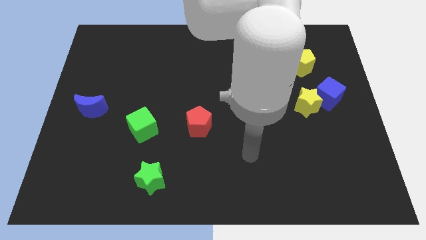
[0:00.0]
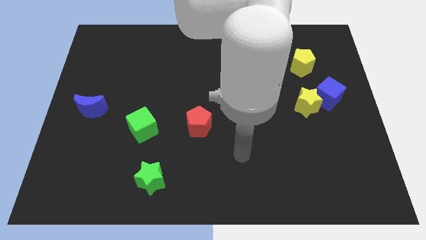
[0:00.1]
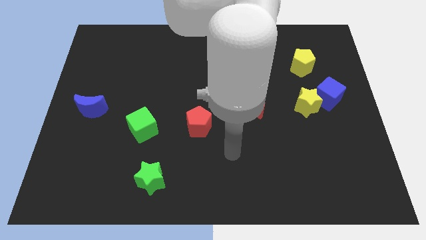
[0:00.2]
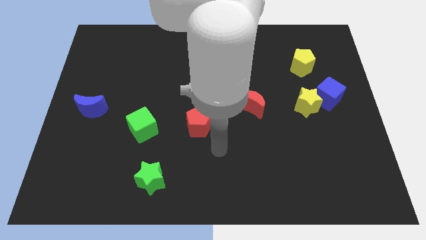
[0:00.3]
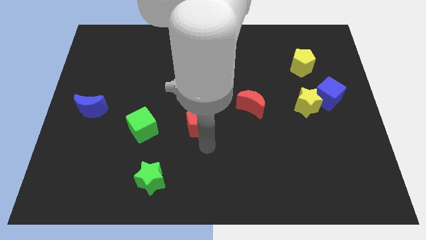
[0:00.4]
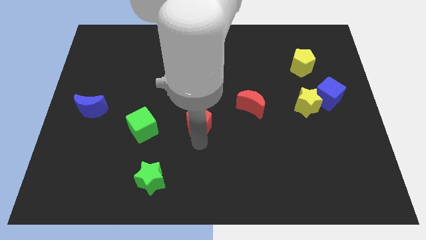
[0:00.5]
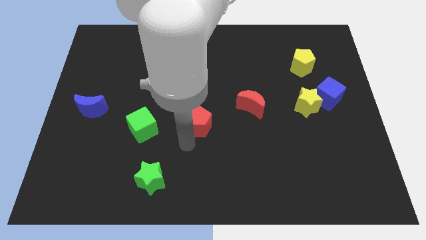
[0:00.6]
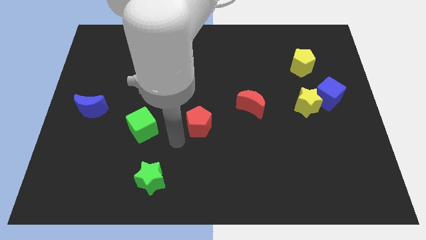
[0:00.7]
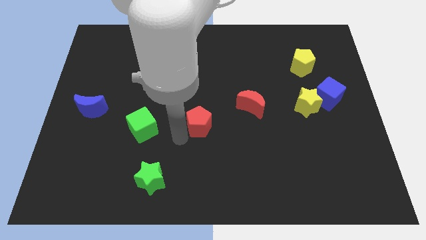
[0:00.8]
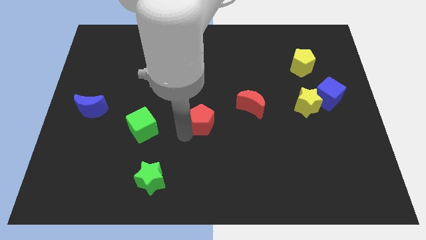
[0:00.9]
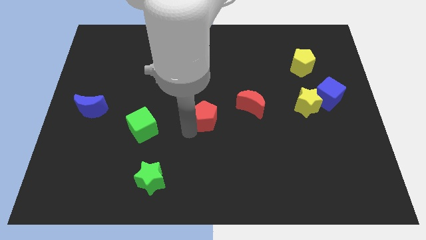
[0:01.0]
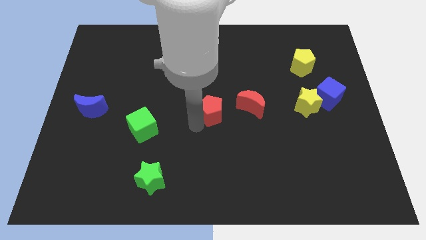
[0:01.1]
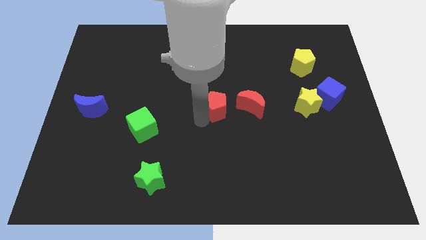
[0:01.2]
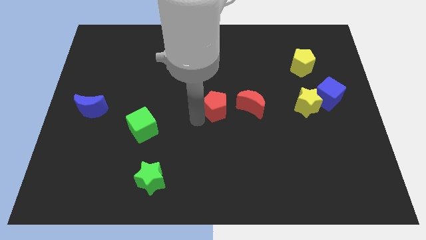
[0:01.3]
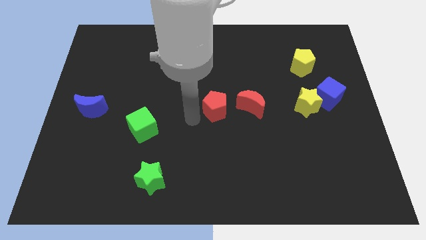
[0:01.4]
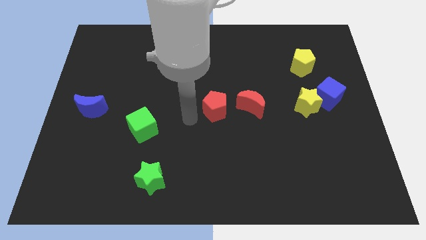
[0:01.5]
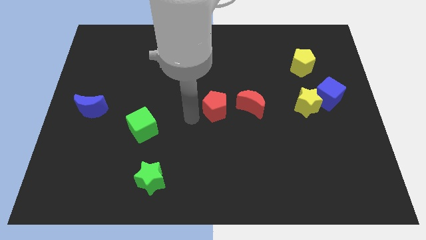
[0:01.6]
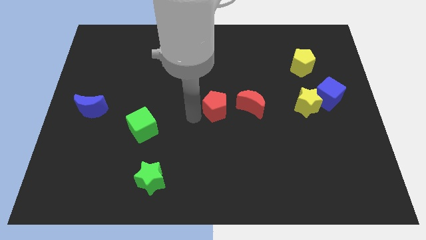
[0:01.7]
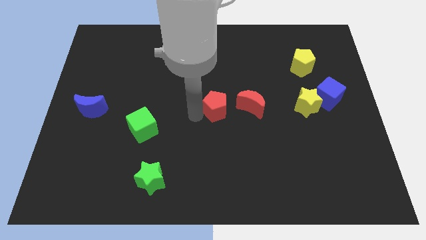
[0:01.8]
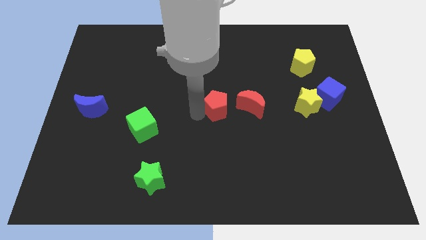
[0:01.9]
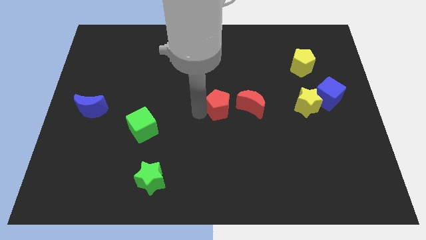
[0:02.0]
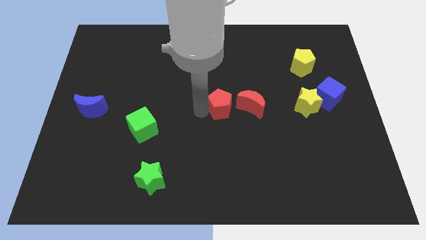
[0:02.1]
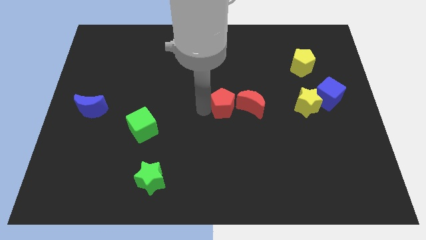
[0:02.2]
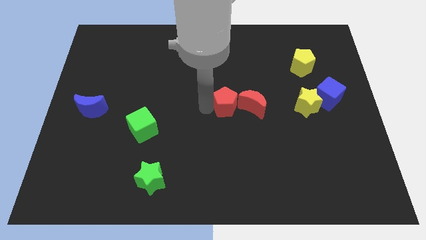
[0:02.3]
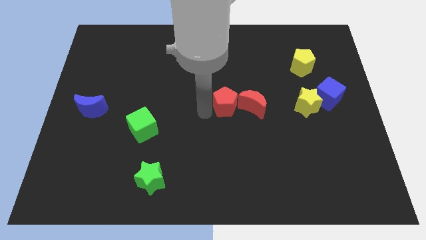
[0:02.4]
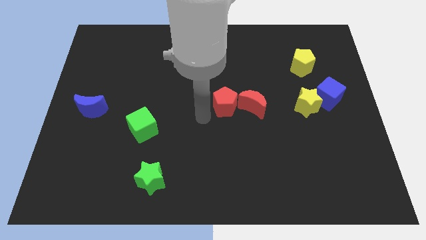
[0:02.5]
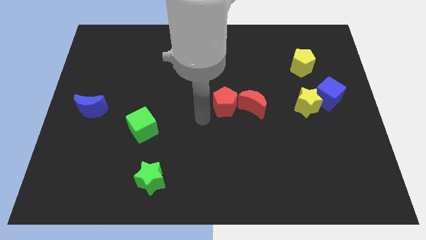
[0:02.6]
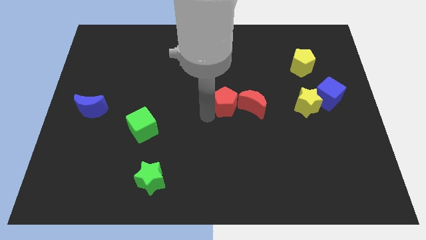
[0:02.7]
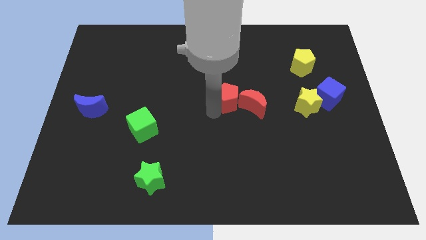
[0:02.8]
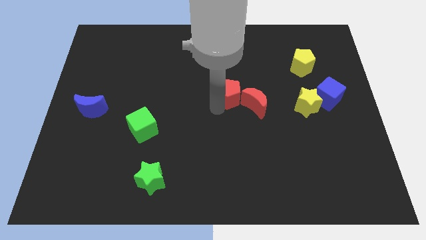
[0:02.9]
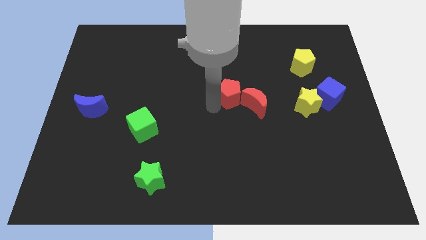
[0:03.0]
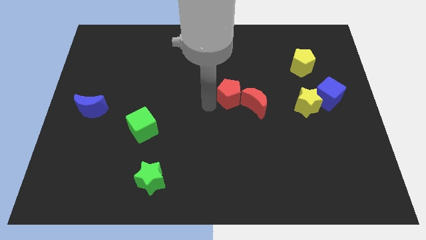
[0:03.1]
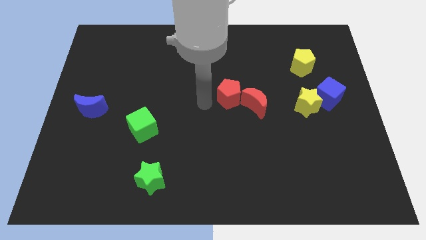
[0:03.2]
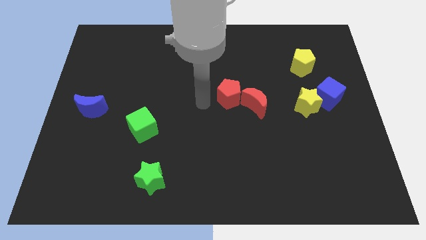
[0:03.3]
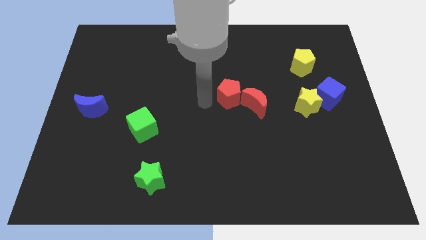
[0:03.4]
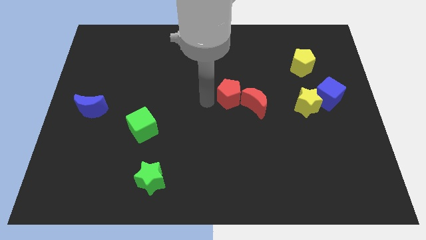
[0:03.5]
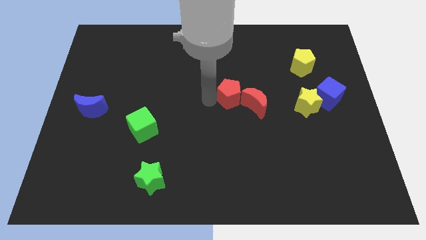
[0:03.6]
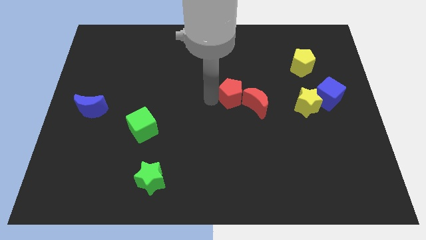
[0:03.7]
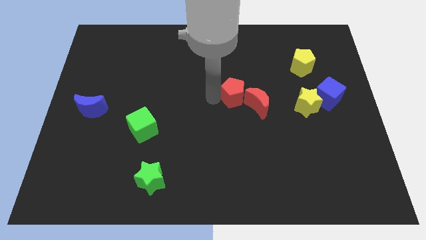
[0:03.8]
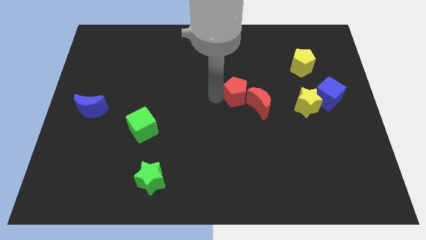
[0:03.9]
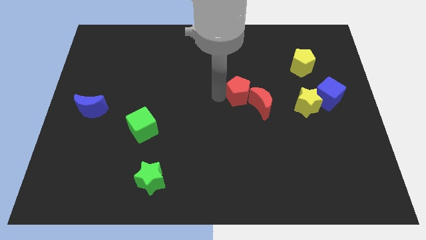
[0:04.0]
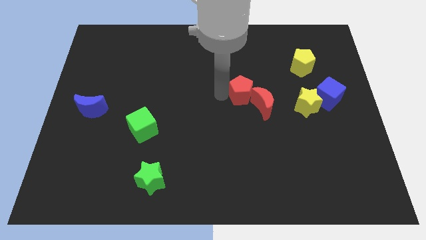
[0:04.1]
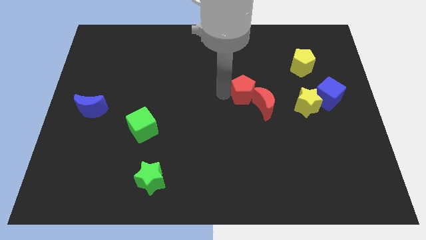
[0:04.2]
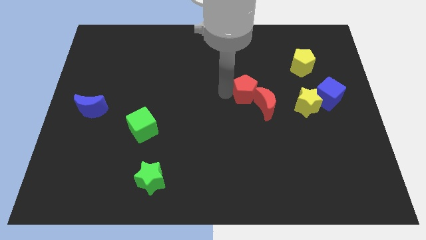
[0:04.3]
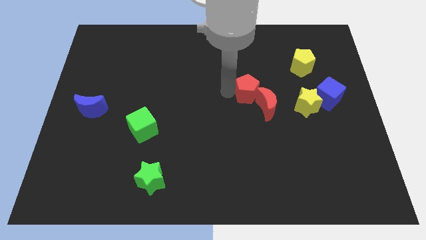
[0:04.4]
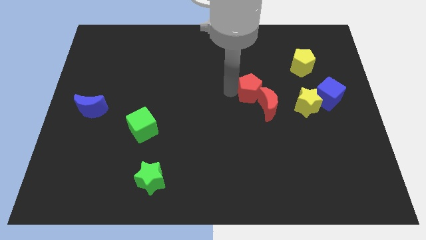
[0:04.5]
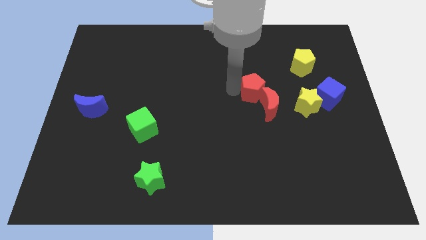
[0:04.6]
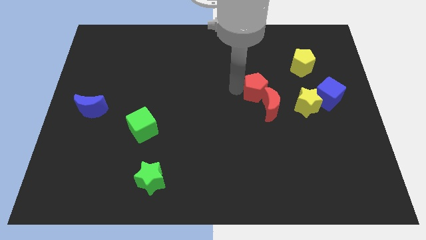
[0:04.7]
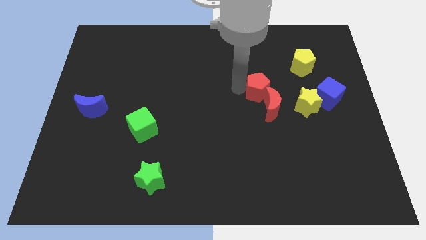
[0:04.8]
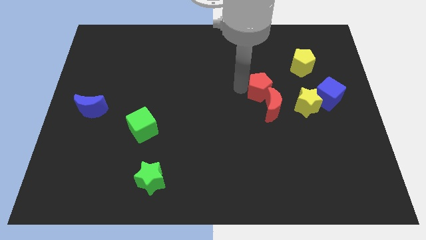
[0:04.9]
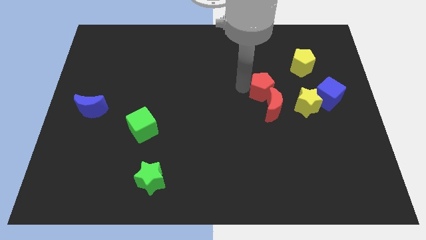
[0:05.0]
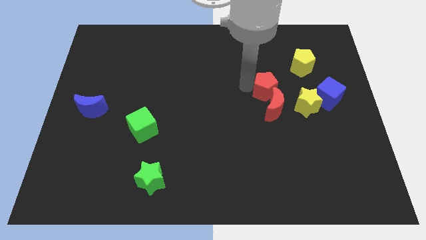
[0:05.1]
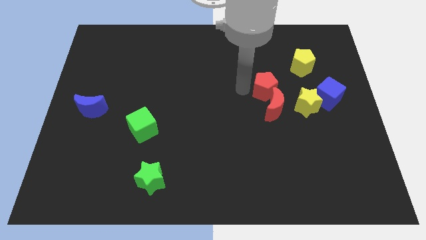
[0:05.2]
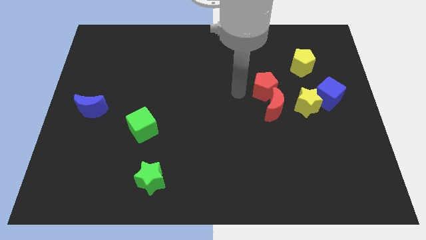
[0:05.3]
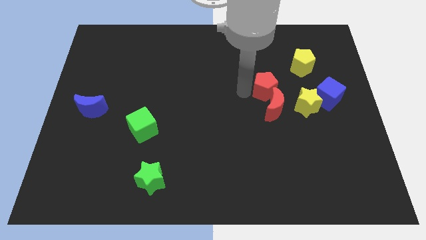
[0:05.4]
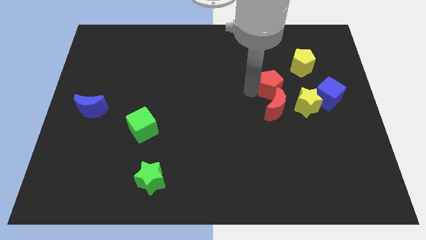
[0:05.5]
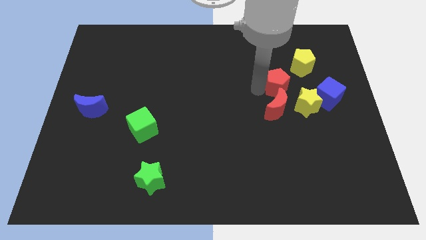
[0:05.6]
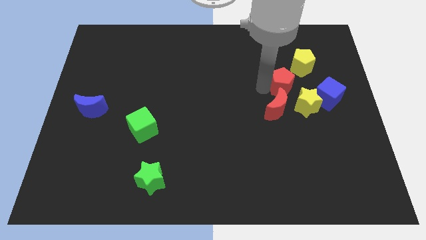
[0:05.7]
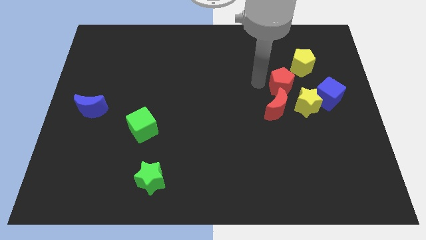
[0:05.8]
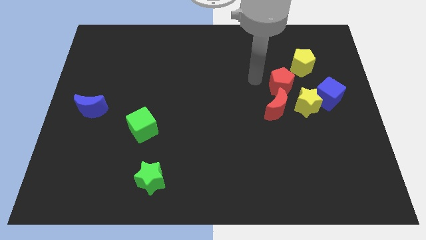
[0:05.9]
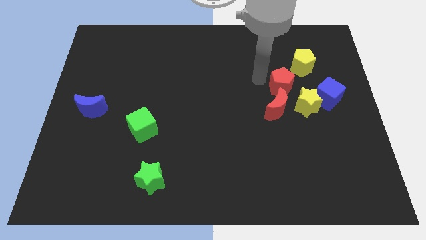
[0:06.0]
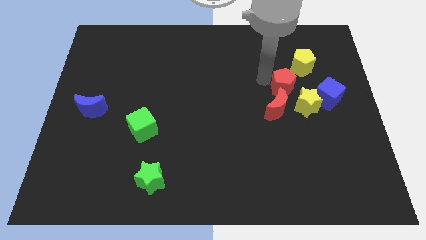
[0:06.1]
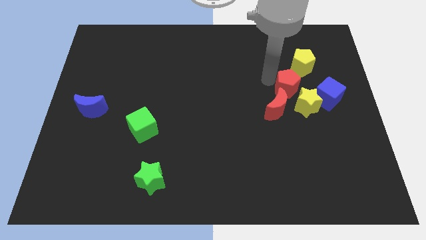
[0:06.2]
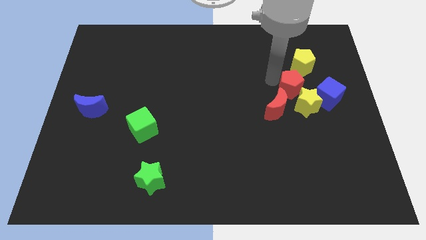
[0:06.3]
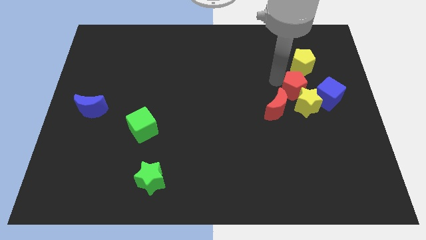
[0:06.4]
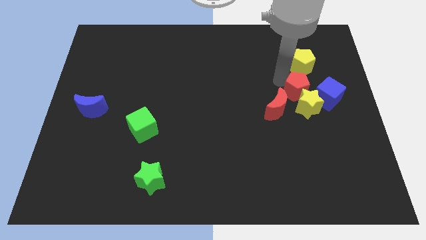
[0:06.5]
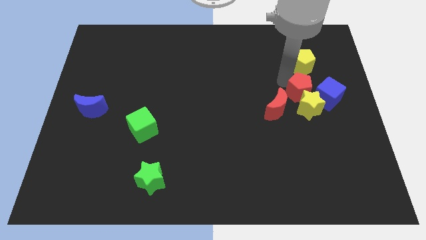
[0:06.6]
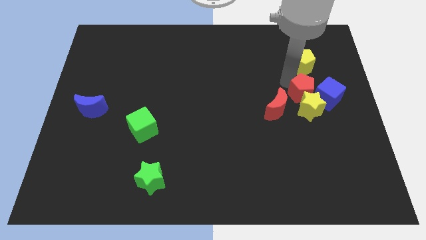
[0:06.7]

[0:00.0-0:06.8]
push the red pentagon towards the blue cube

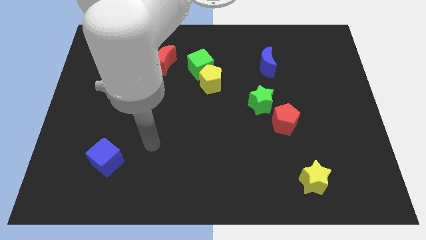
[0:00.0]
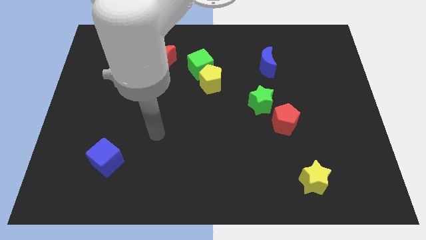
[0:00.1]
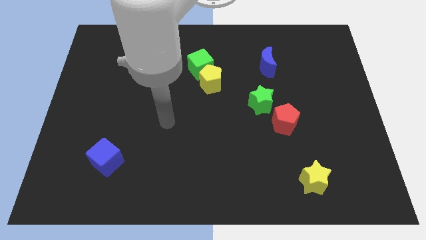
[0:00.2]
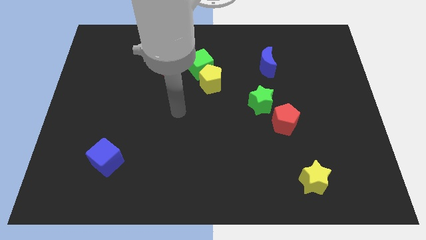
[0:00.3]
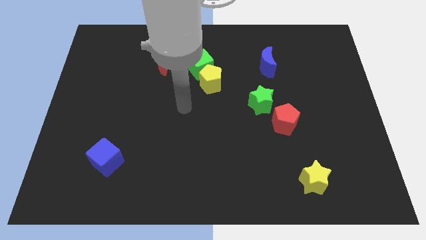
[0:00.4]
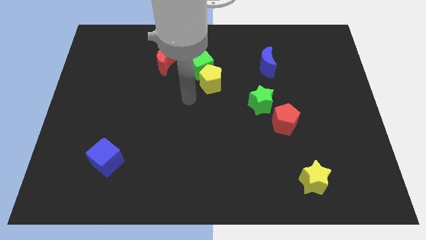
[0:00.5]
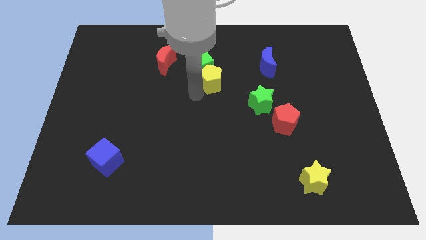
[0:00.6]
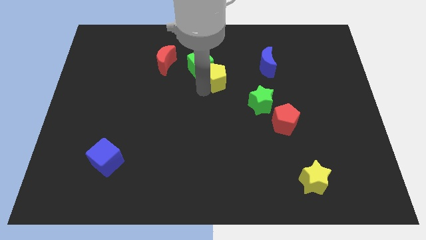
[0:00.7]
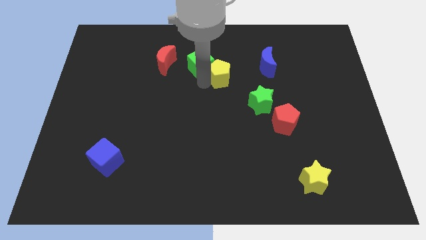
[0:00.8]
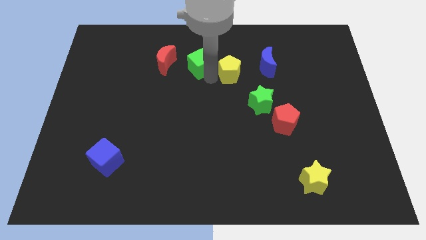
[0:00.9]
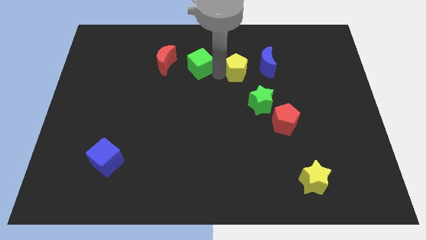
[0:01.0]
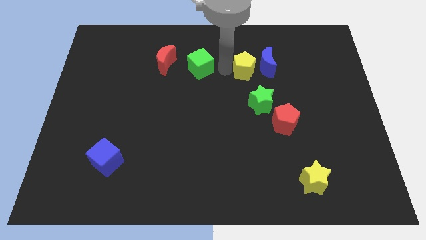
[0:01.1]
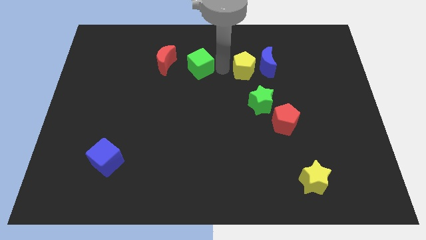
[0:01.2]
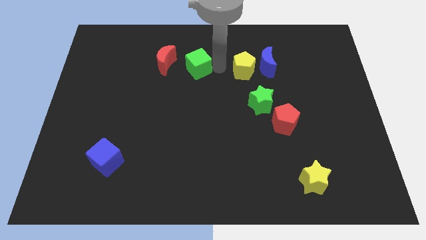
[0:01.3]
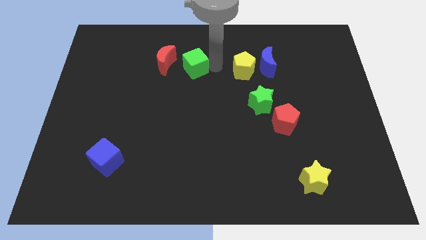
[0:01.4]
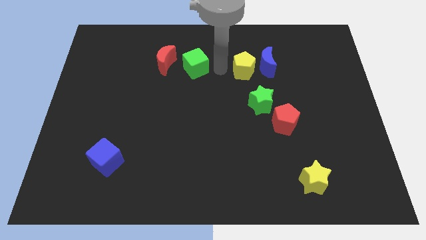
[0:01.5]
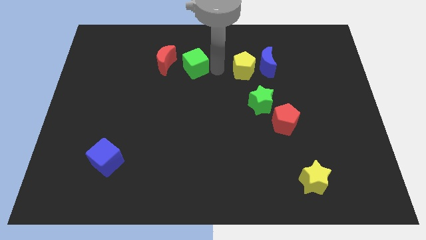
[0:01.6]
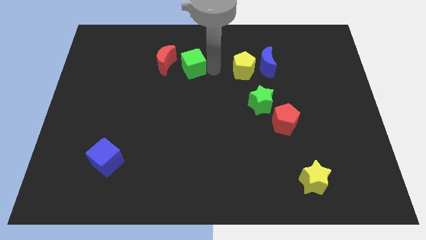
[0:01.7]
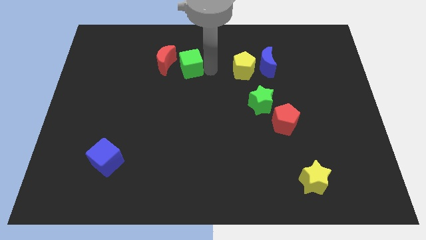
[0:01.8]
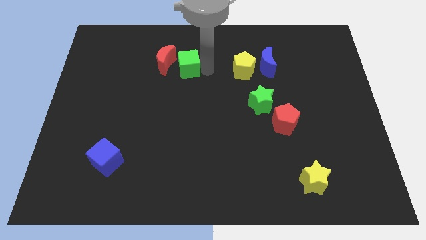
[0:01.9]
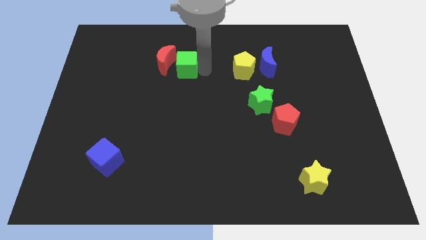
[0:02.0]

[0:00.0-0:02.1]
put the green cube next to the red moon
